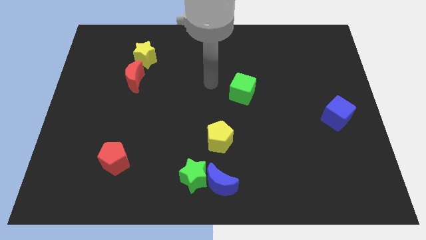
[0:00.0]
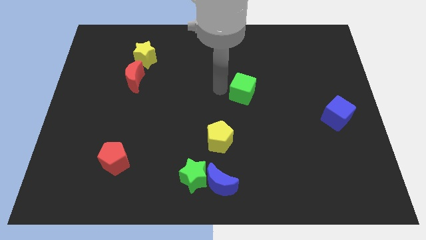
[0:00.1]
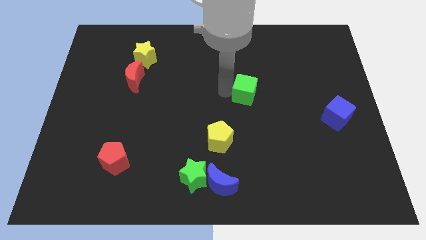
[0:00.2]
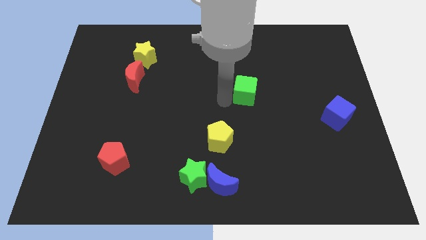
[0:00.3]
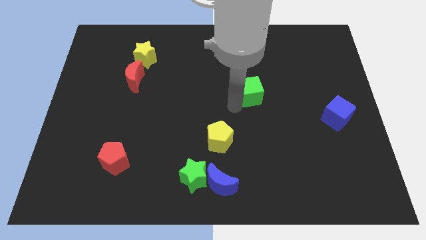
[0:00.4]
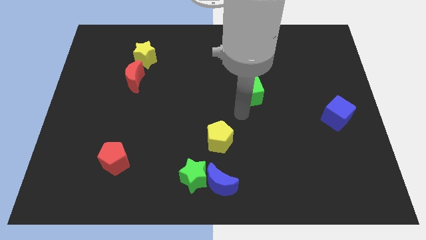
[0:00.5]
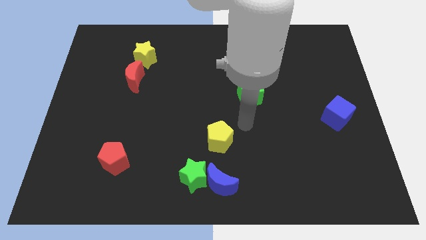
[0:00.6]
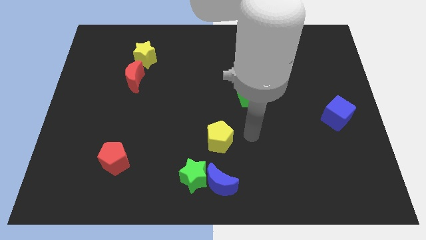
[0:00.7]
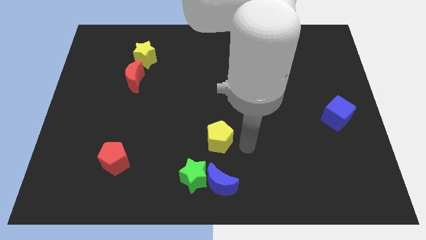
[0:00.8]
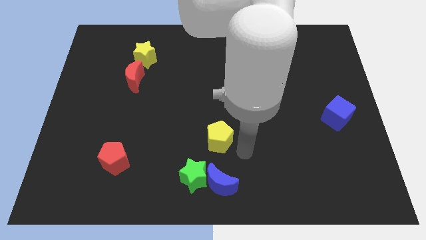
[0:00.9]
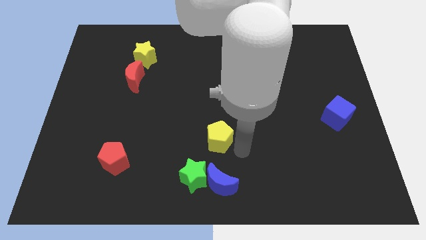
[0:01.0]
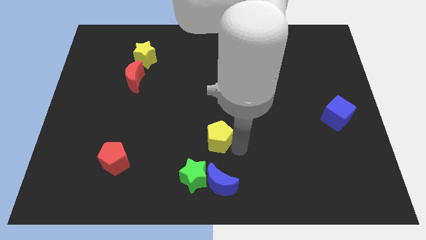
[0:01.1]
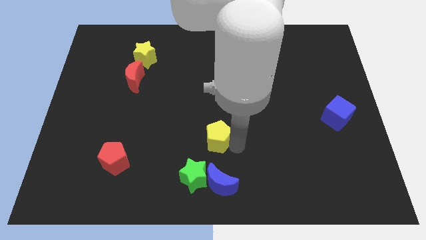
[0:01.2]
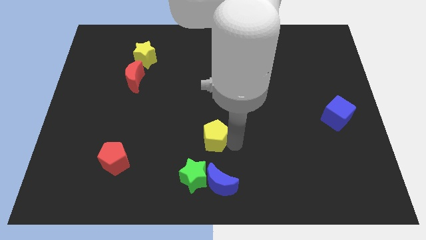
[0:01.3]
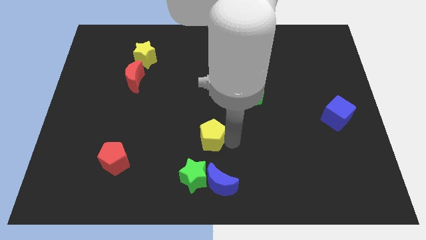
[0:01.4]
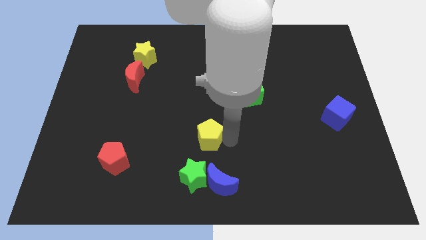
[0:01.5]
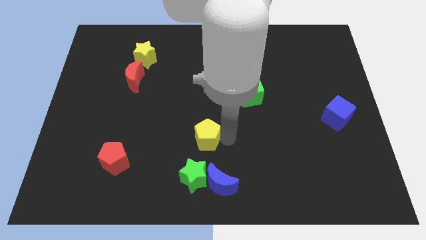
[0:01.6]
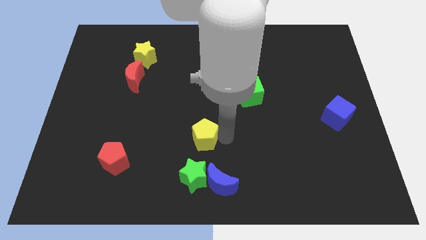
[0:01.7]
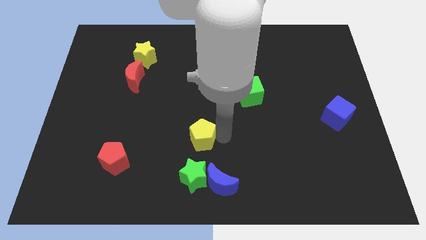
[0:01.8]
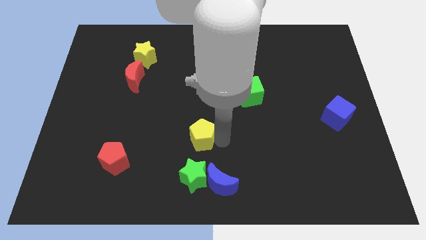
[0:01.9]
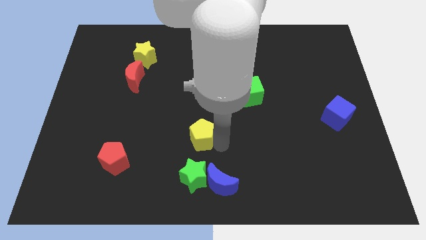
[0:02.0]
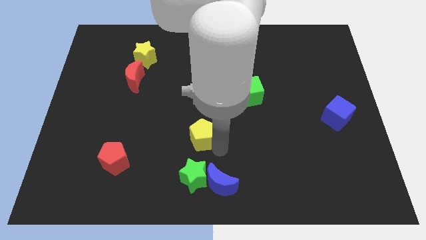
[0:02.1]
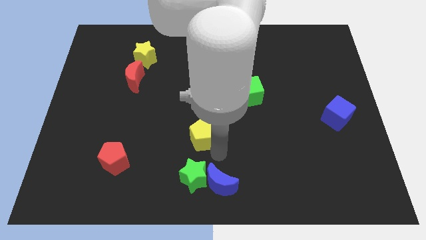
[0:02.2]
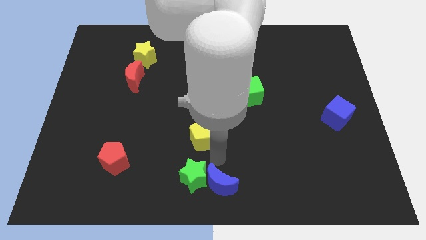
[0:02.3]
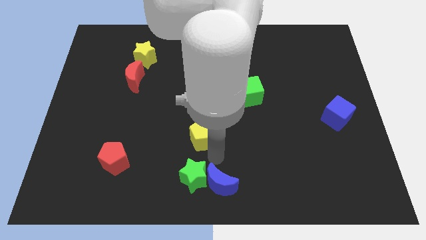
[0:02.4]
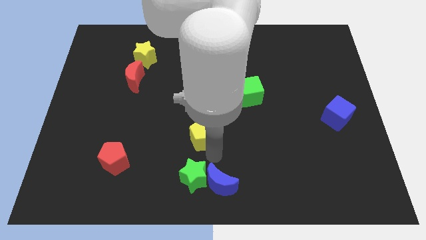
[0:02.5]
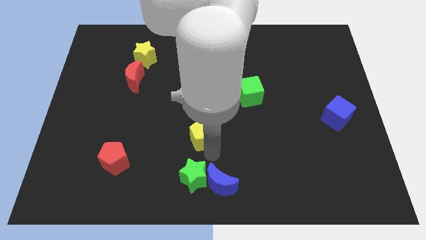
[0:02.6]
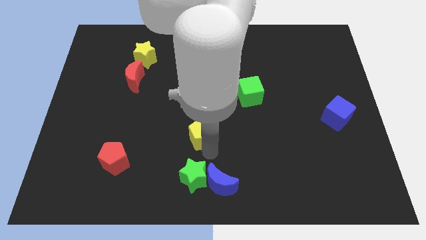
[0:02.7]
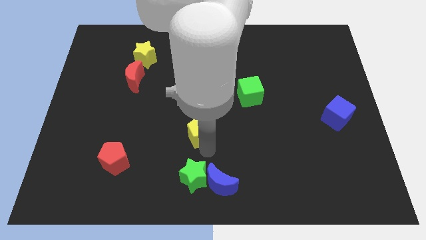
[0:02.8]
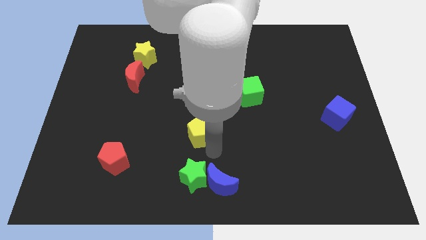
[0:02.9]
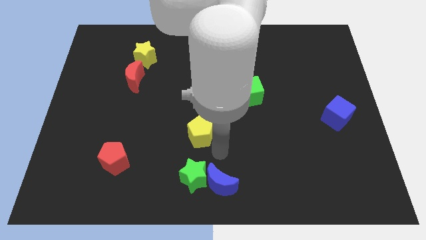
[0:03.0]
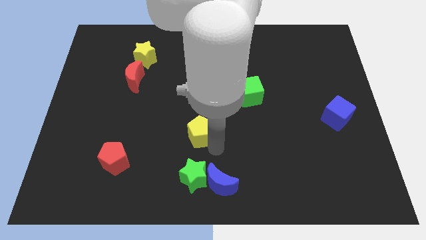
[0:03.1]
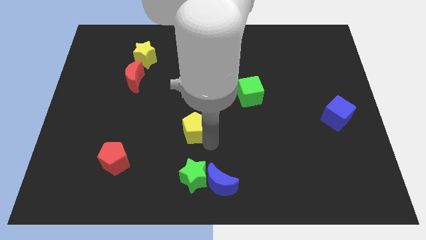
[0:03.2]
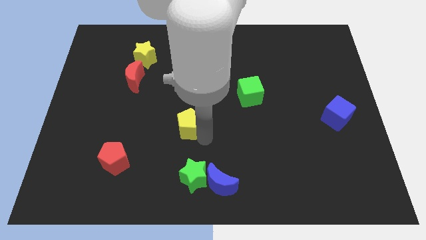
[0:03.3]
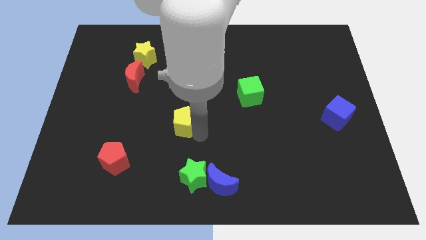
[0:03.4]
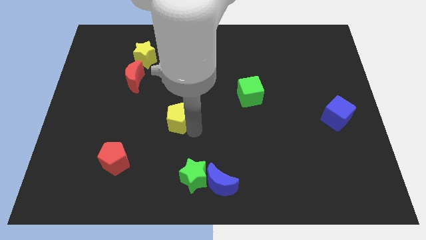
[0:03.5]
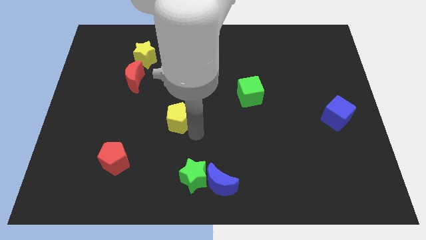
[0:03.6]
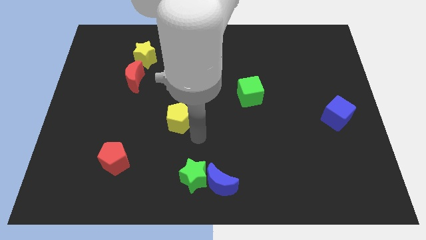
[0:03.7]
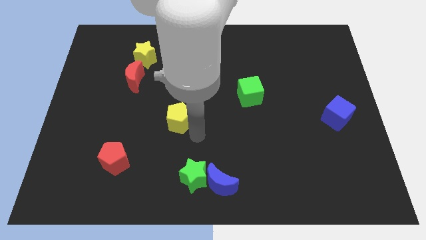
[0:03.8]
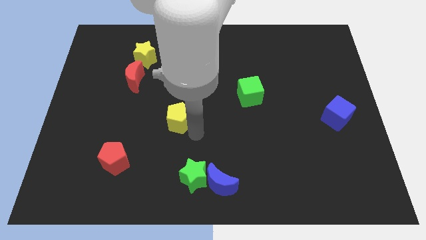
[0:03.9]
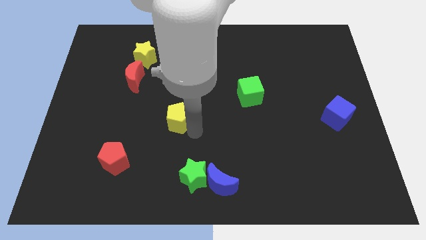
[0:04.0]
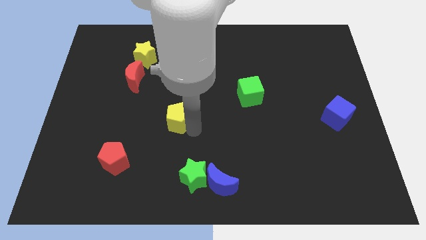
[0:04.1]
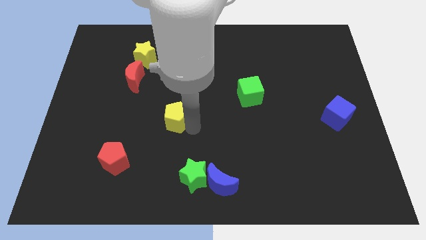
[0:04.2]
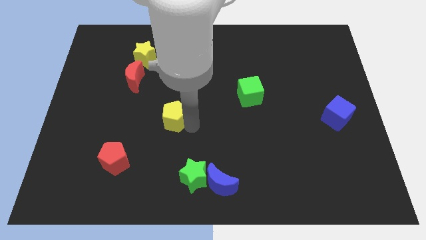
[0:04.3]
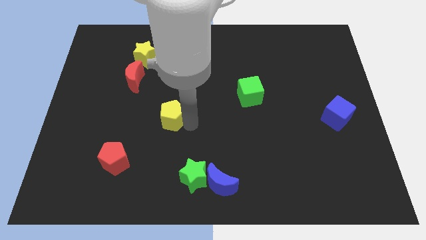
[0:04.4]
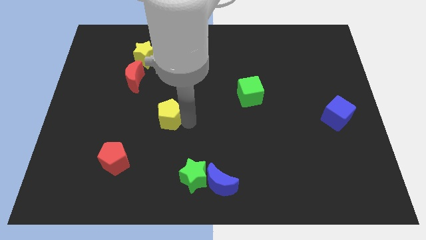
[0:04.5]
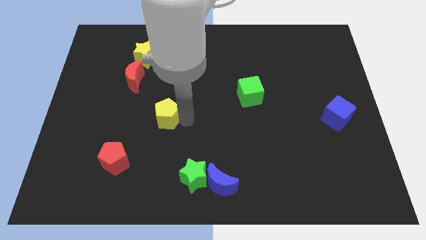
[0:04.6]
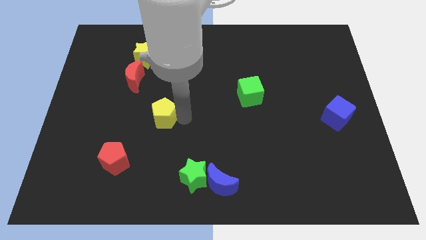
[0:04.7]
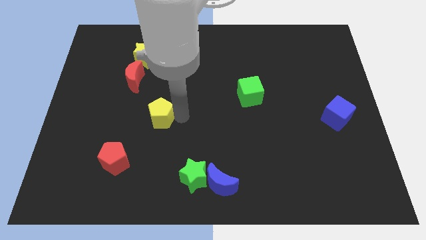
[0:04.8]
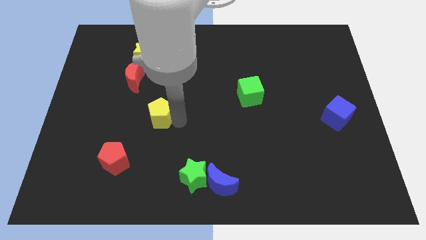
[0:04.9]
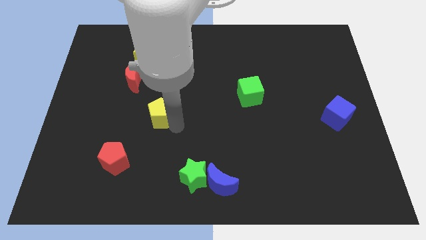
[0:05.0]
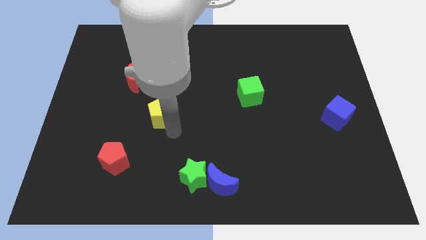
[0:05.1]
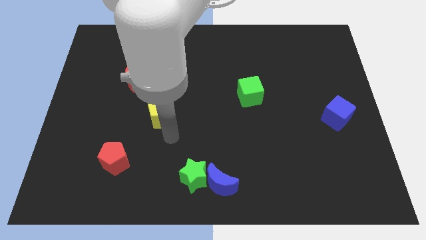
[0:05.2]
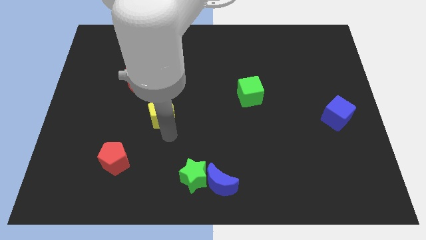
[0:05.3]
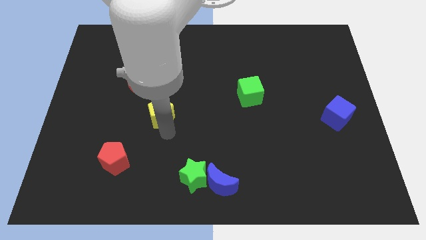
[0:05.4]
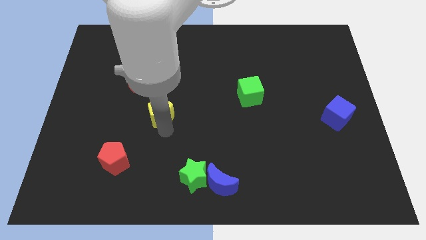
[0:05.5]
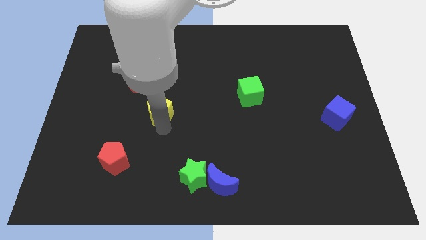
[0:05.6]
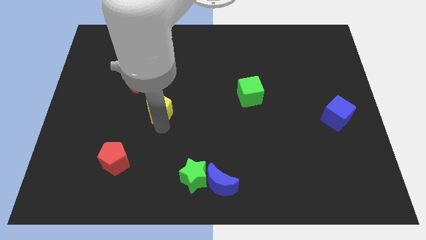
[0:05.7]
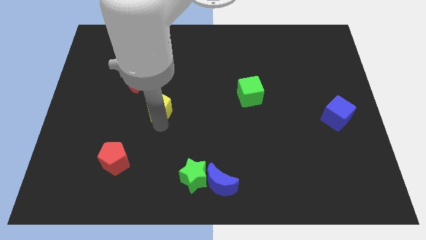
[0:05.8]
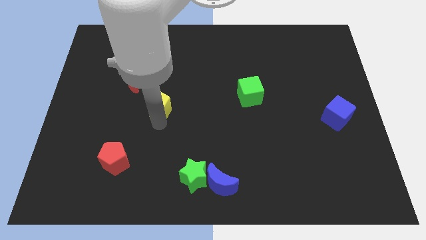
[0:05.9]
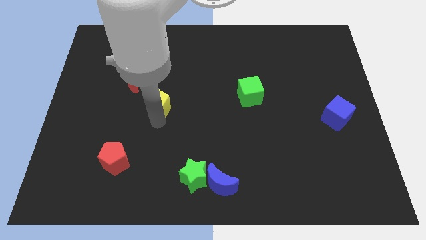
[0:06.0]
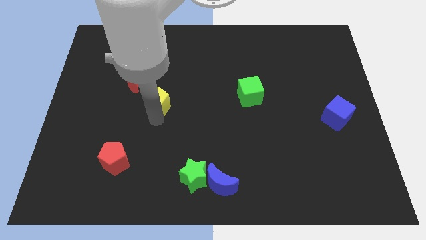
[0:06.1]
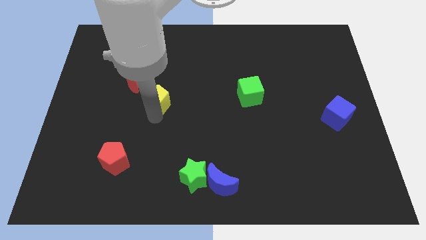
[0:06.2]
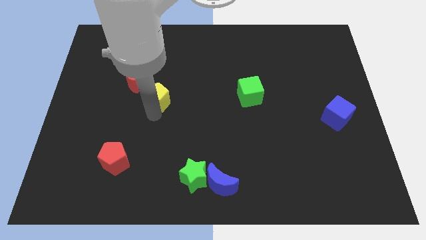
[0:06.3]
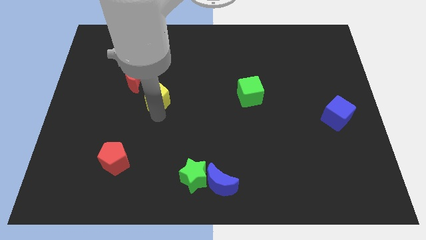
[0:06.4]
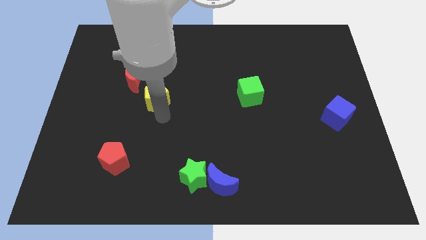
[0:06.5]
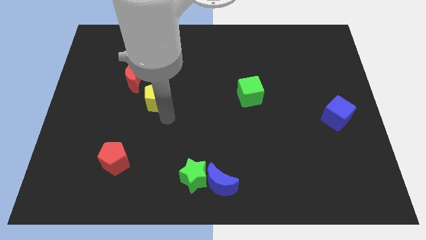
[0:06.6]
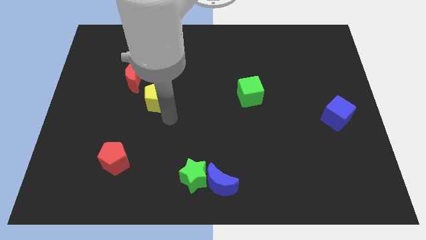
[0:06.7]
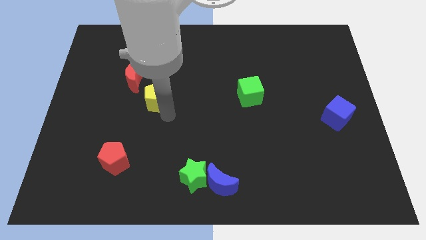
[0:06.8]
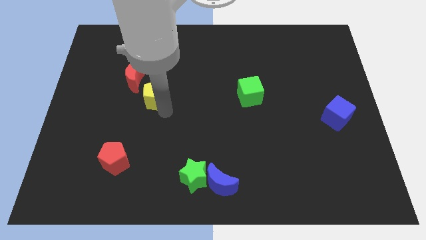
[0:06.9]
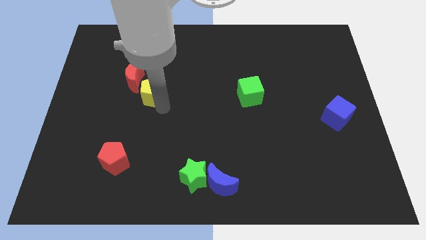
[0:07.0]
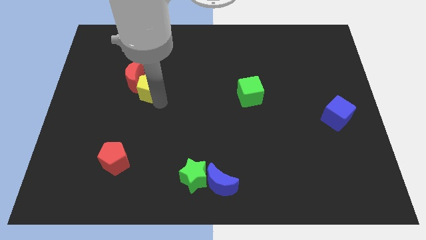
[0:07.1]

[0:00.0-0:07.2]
move the yellow pentagon to the red moon

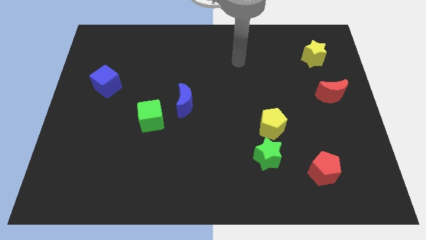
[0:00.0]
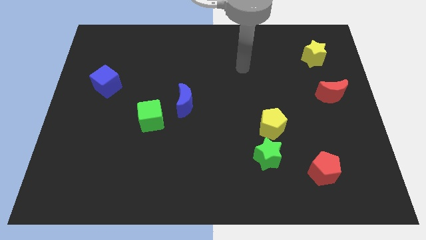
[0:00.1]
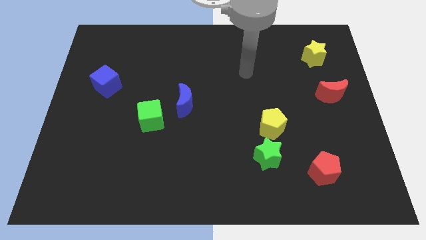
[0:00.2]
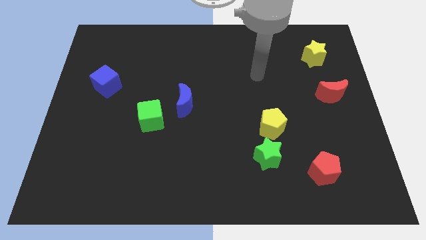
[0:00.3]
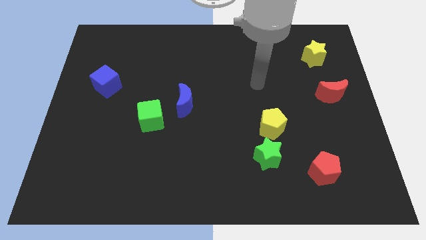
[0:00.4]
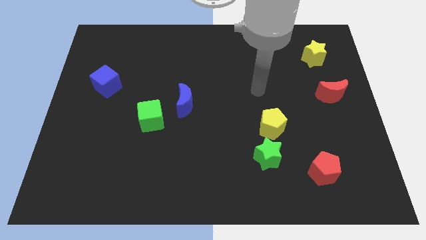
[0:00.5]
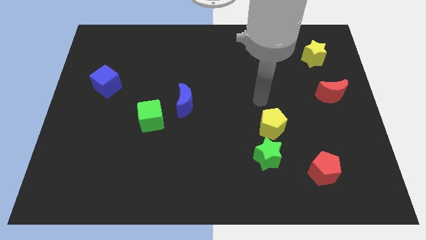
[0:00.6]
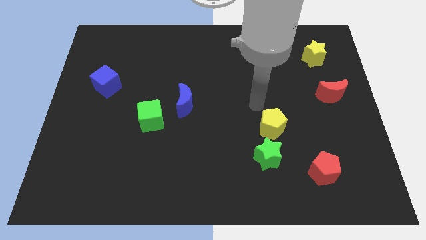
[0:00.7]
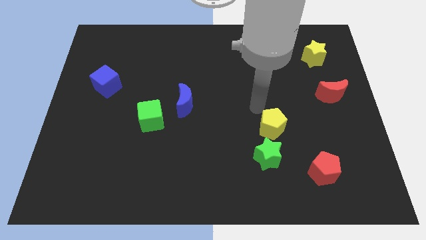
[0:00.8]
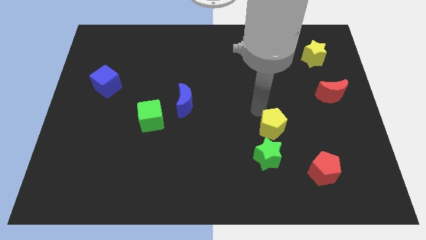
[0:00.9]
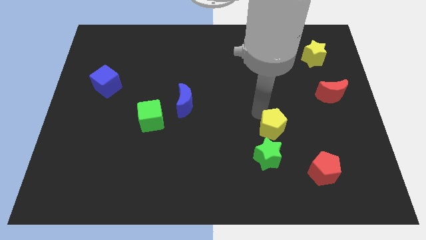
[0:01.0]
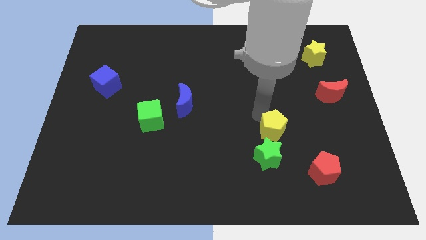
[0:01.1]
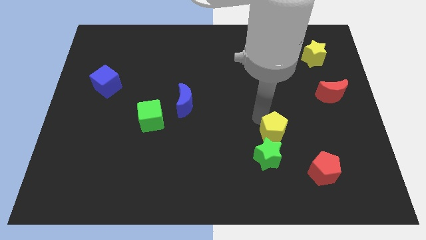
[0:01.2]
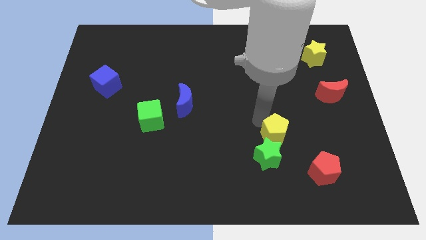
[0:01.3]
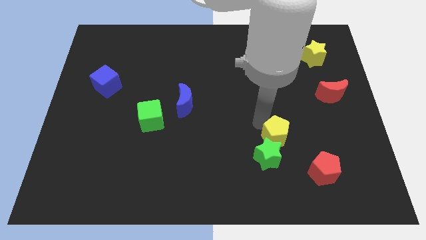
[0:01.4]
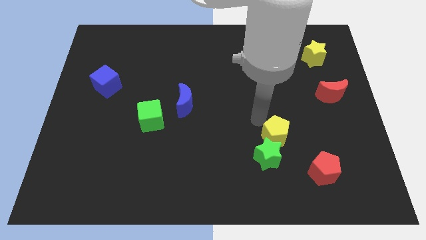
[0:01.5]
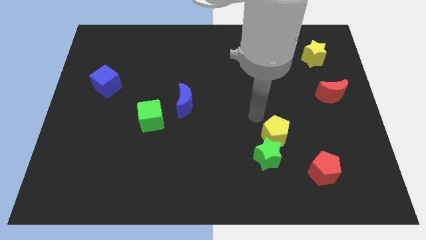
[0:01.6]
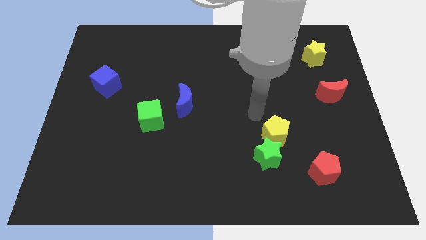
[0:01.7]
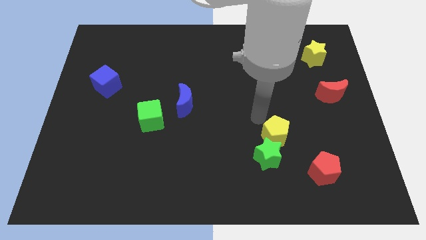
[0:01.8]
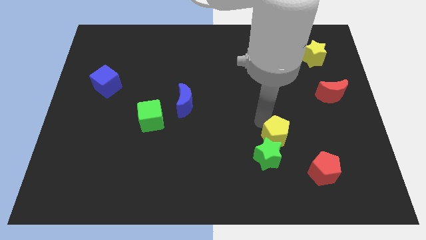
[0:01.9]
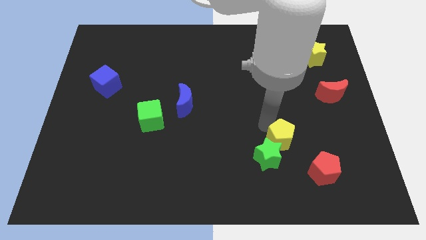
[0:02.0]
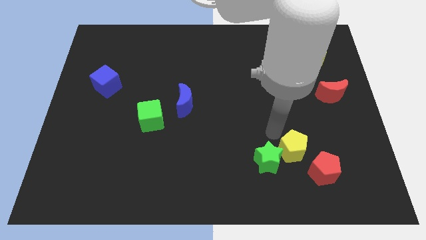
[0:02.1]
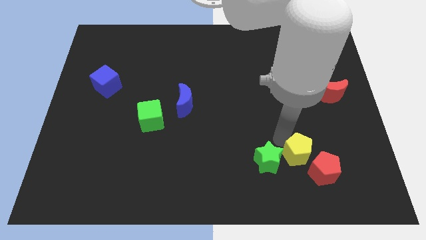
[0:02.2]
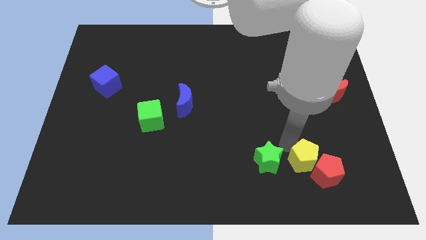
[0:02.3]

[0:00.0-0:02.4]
move the yellow pentagon close to the red pentagon
